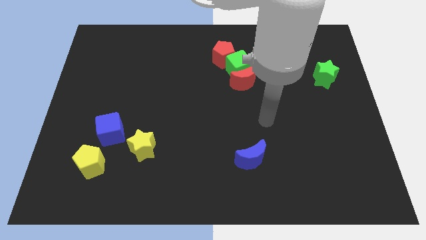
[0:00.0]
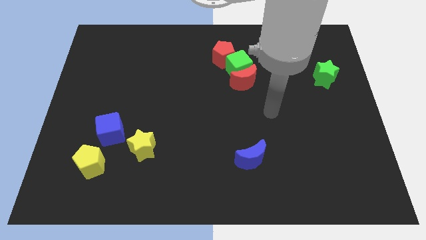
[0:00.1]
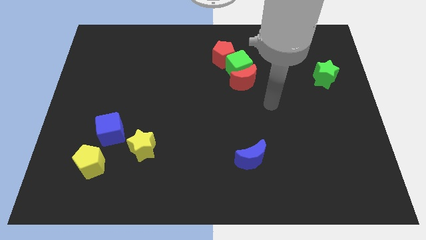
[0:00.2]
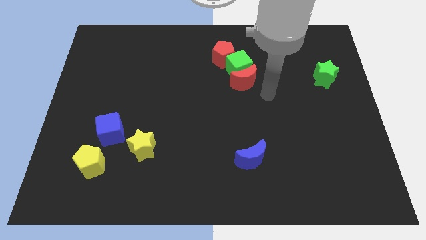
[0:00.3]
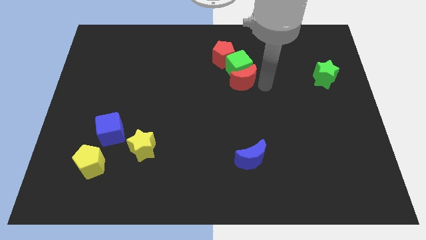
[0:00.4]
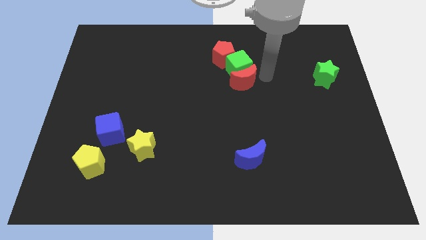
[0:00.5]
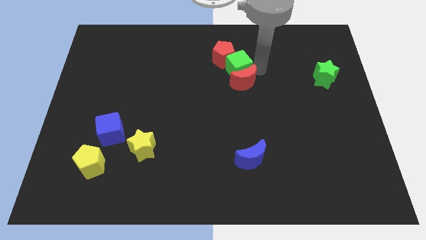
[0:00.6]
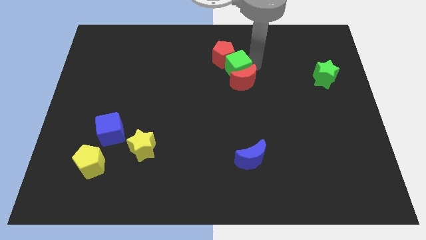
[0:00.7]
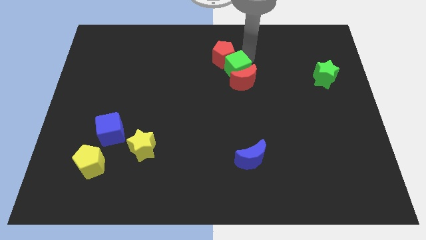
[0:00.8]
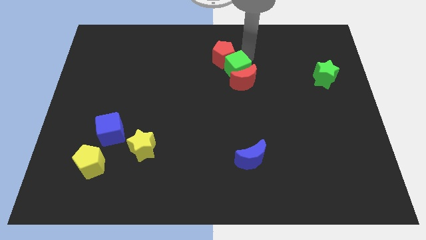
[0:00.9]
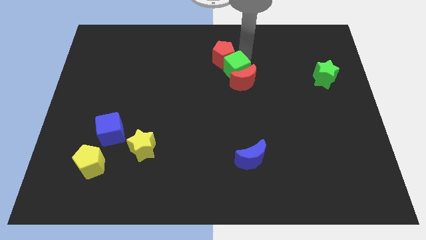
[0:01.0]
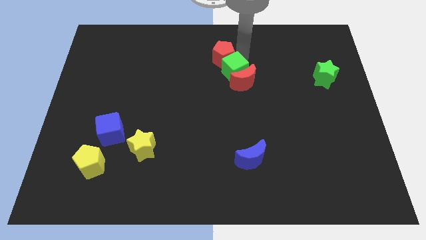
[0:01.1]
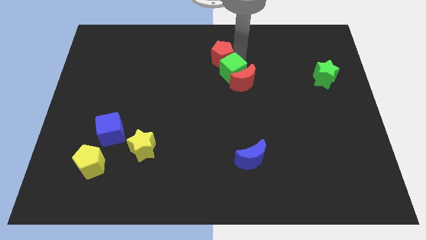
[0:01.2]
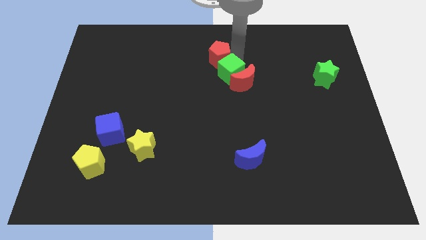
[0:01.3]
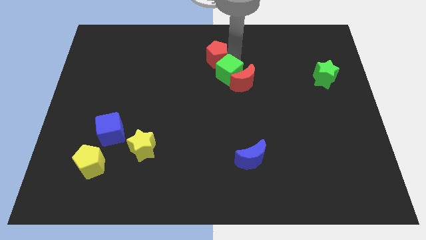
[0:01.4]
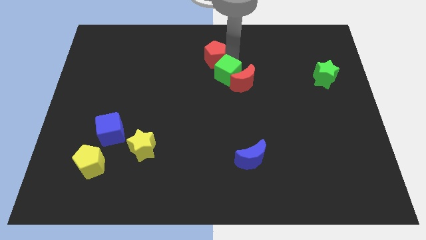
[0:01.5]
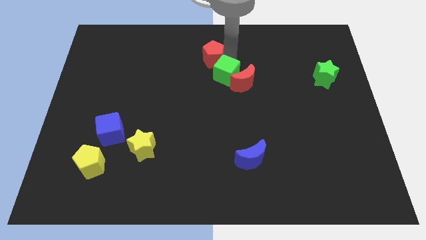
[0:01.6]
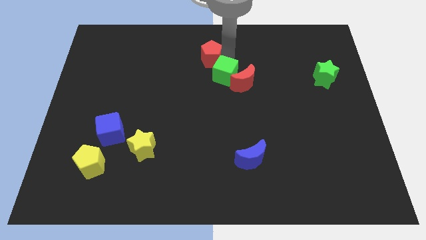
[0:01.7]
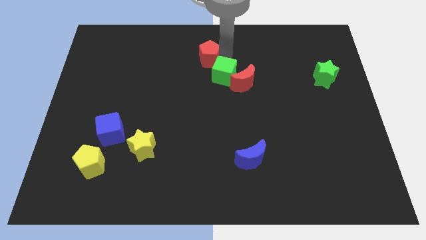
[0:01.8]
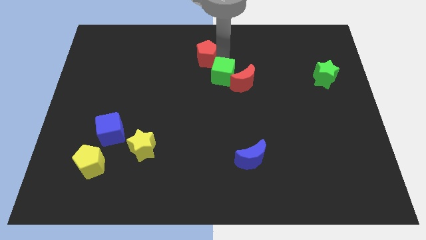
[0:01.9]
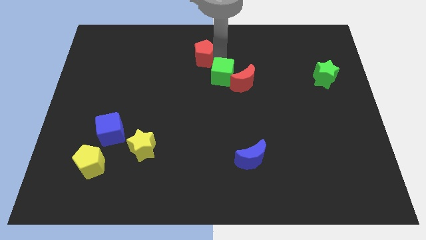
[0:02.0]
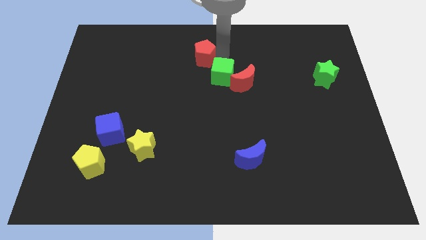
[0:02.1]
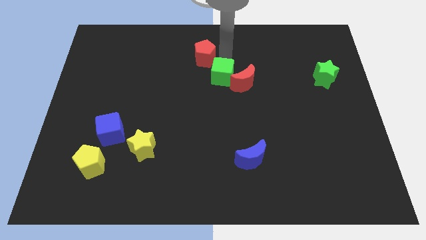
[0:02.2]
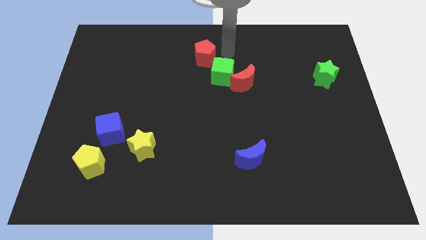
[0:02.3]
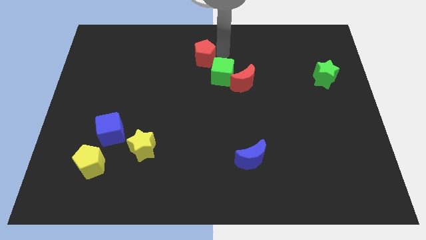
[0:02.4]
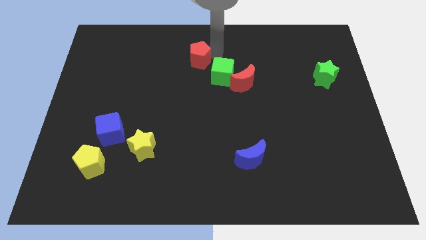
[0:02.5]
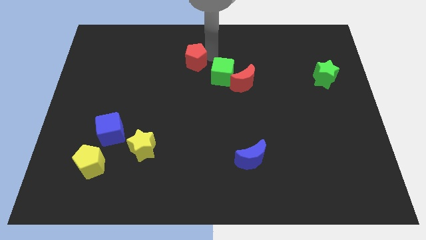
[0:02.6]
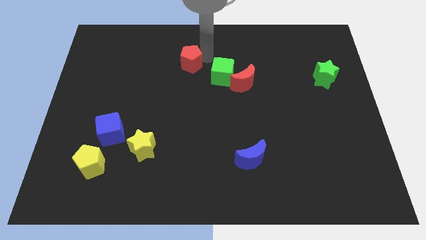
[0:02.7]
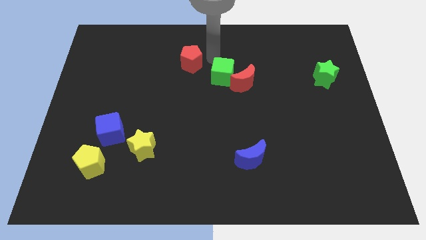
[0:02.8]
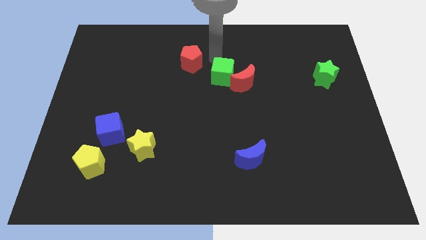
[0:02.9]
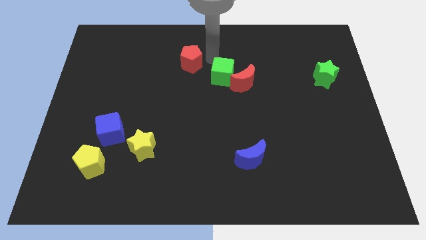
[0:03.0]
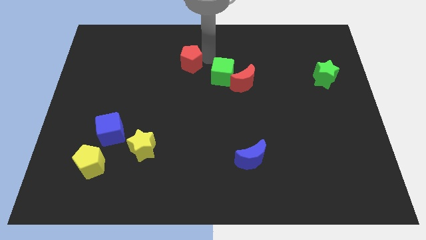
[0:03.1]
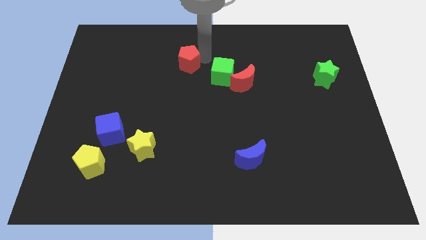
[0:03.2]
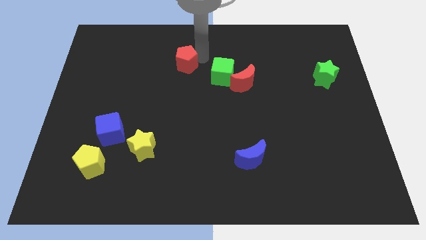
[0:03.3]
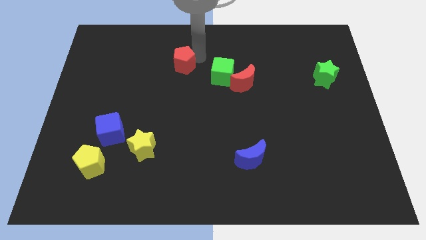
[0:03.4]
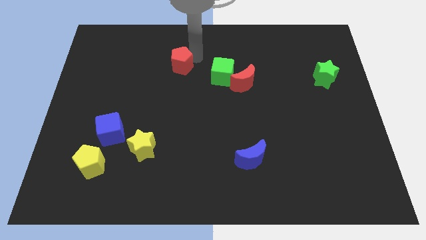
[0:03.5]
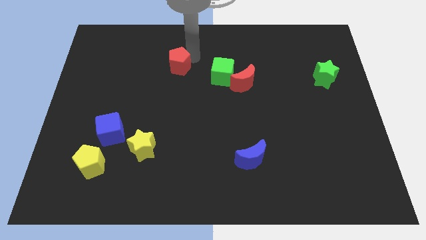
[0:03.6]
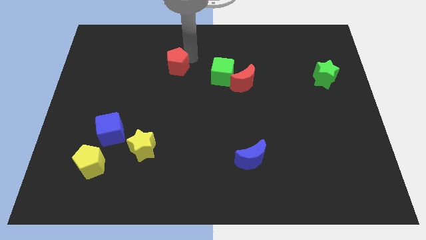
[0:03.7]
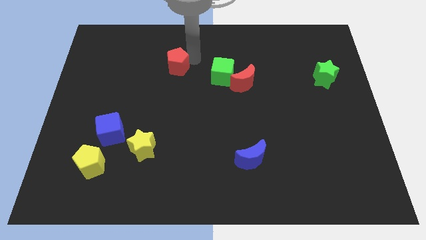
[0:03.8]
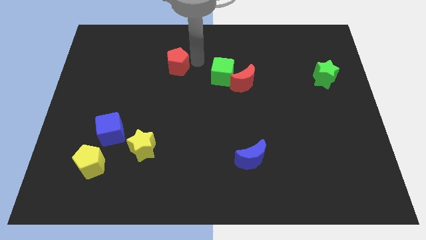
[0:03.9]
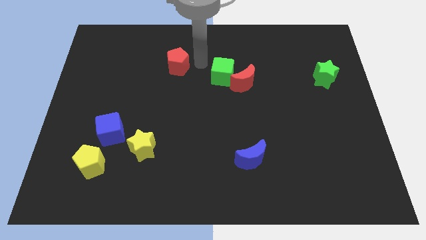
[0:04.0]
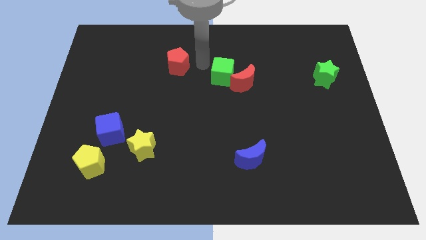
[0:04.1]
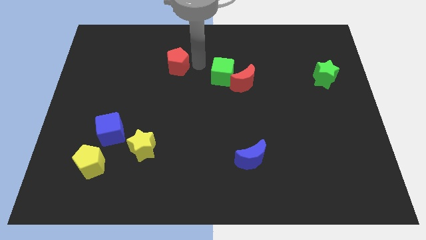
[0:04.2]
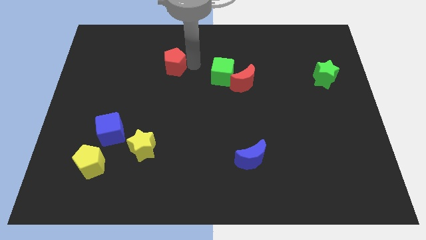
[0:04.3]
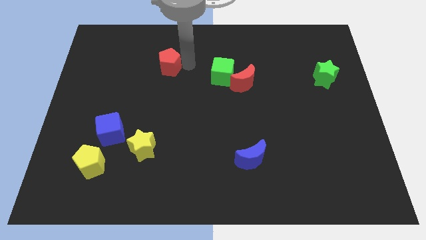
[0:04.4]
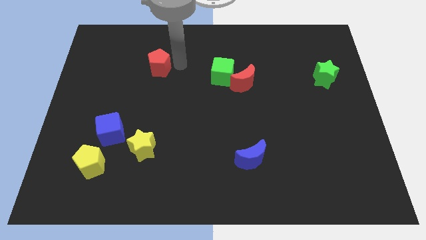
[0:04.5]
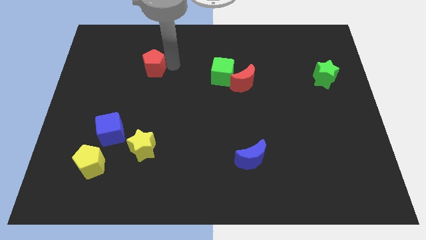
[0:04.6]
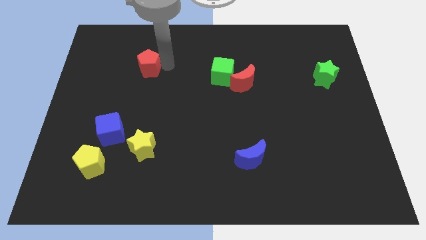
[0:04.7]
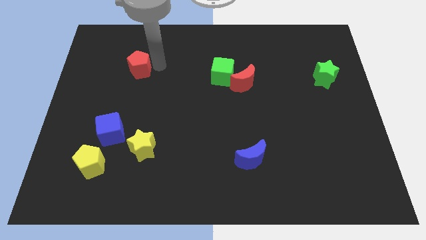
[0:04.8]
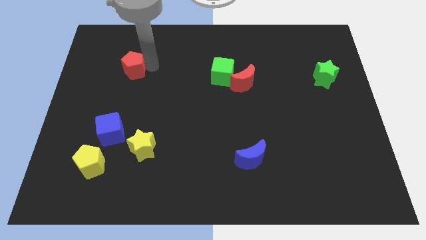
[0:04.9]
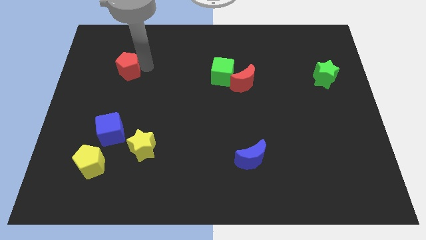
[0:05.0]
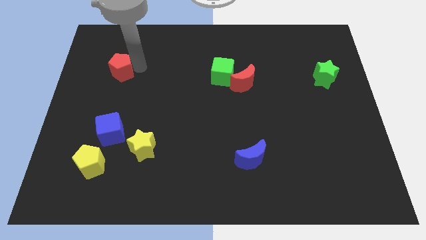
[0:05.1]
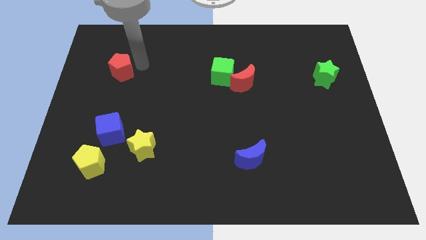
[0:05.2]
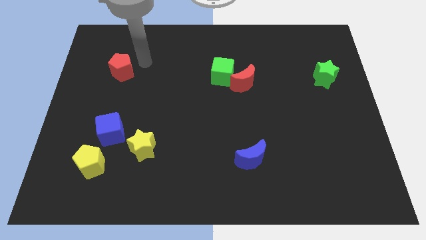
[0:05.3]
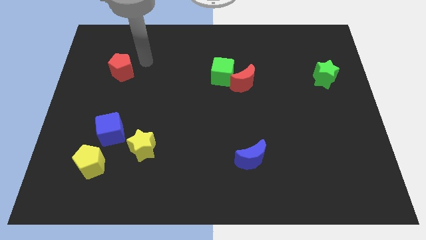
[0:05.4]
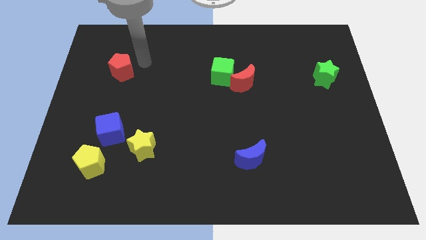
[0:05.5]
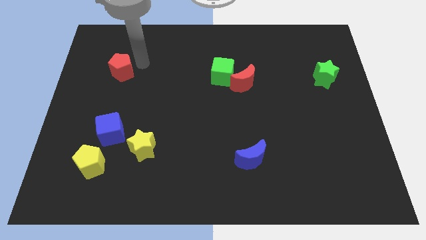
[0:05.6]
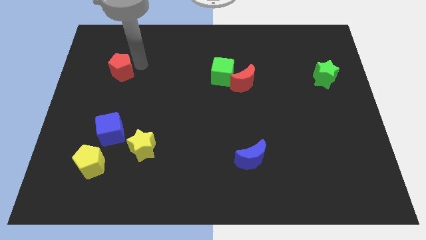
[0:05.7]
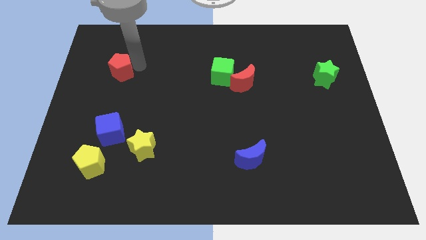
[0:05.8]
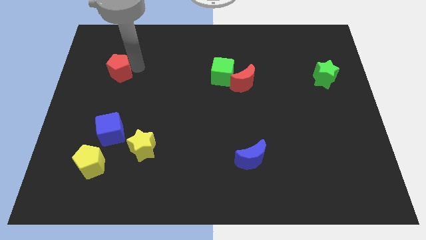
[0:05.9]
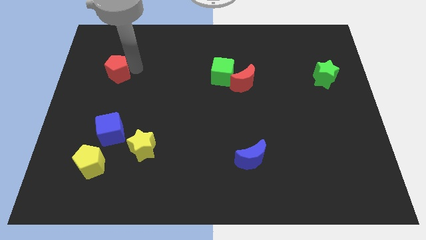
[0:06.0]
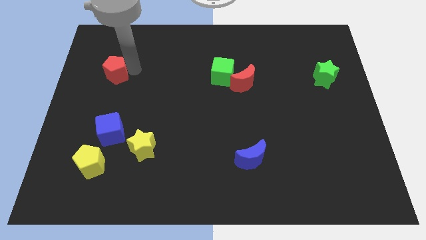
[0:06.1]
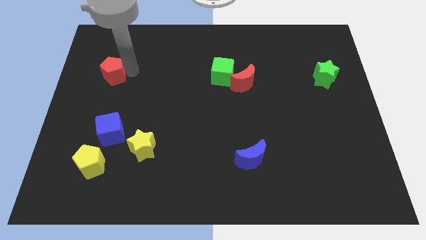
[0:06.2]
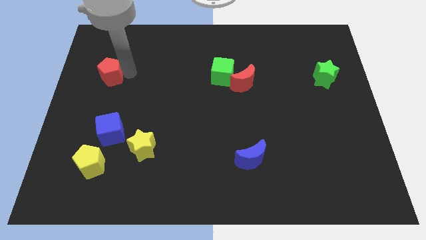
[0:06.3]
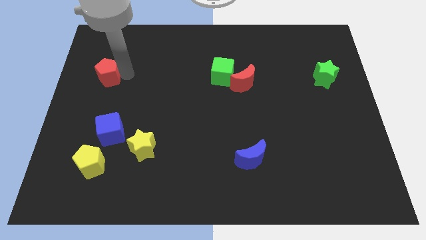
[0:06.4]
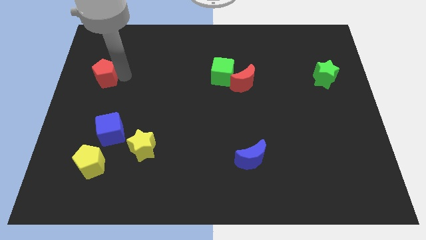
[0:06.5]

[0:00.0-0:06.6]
put the red pentagon to the left side of the board
